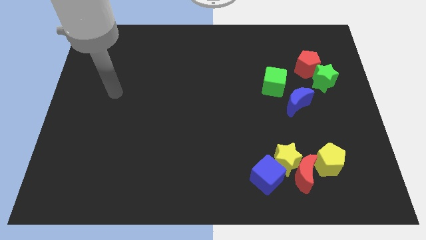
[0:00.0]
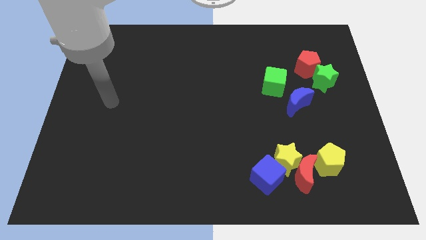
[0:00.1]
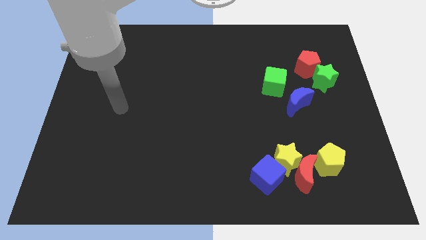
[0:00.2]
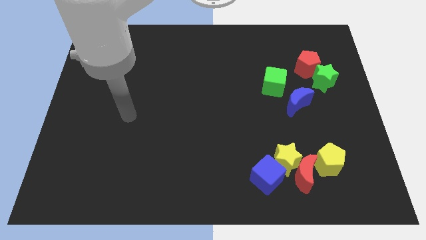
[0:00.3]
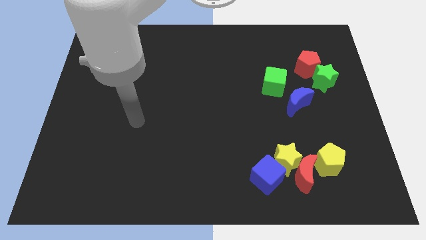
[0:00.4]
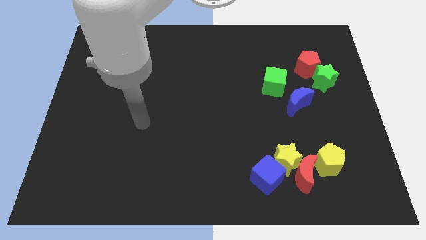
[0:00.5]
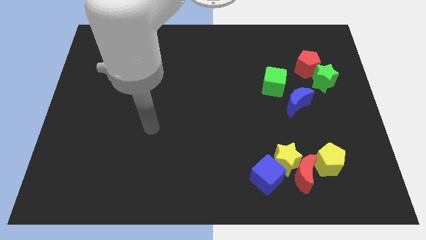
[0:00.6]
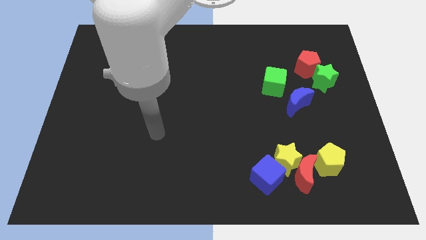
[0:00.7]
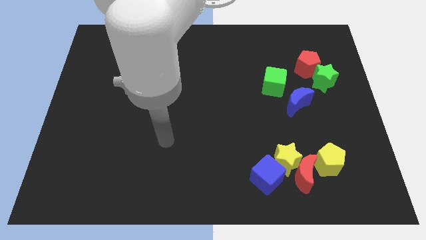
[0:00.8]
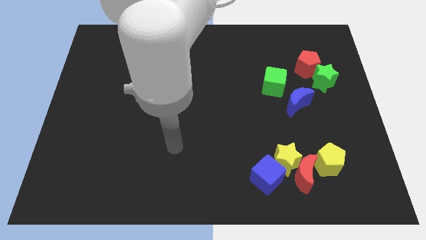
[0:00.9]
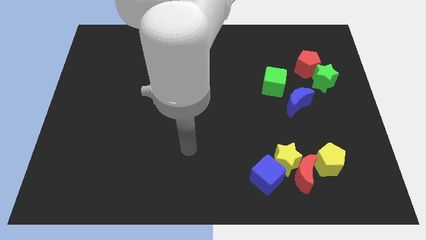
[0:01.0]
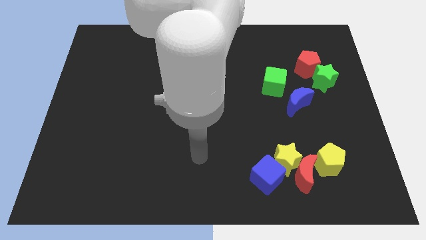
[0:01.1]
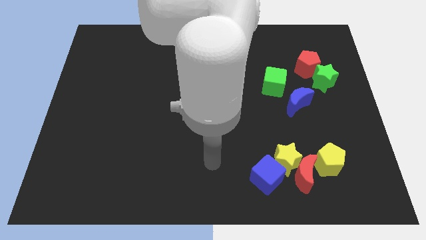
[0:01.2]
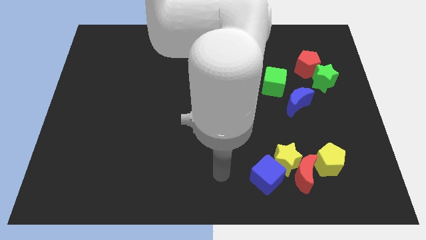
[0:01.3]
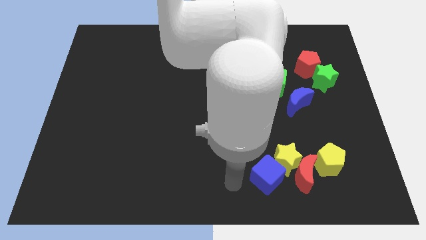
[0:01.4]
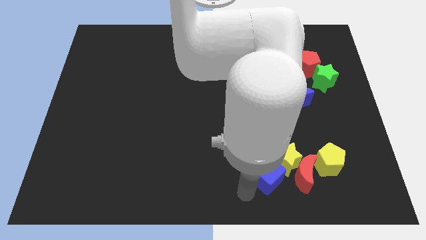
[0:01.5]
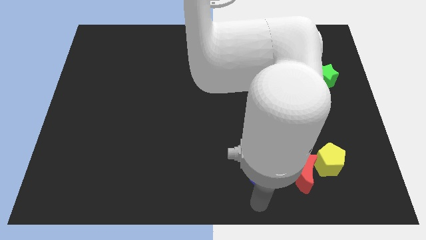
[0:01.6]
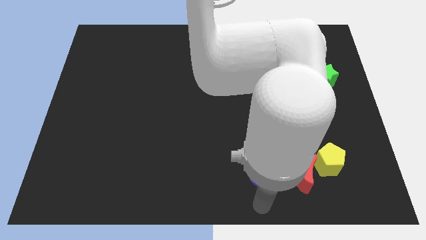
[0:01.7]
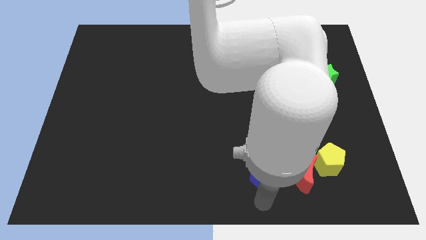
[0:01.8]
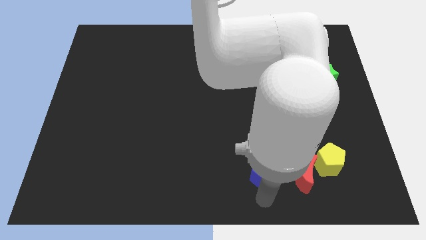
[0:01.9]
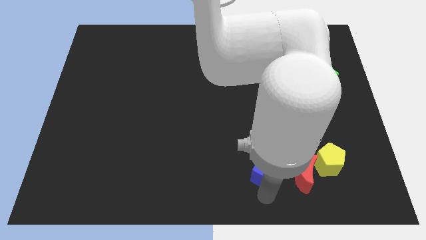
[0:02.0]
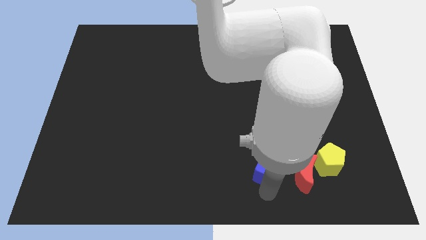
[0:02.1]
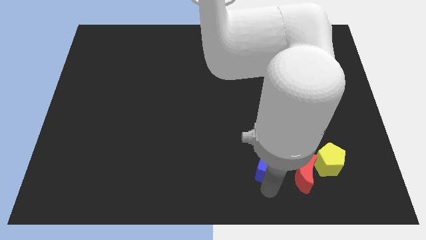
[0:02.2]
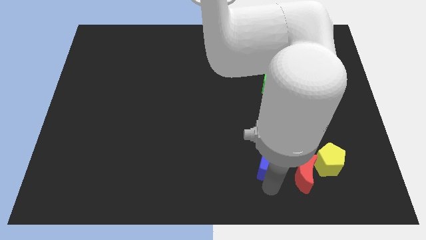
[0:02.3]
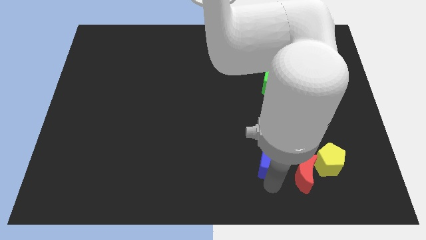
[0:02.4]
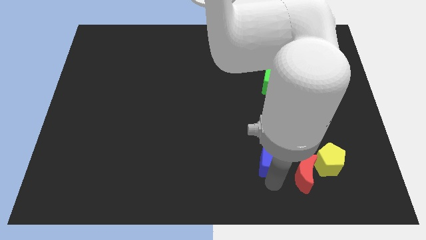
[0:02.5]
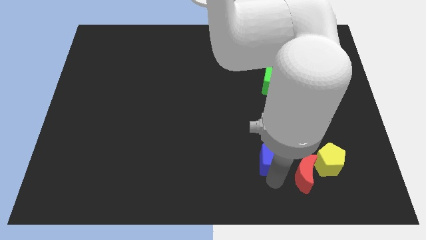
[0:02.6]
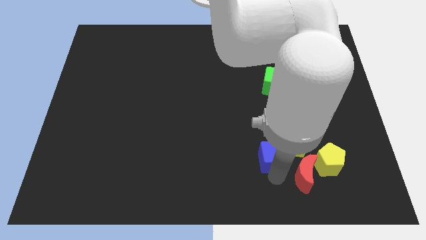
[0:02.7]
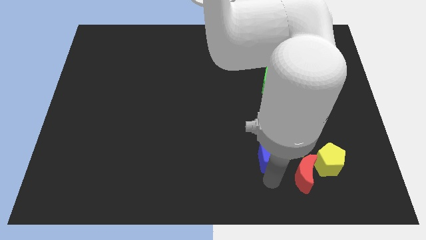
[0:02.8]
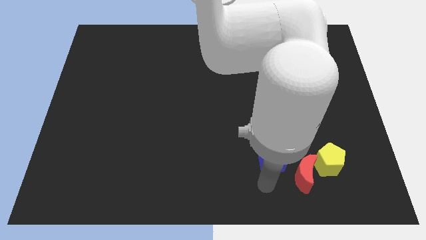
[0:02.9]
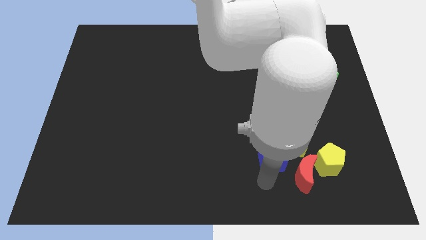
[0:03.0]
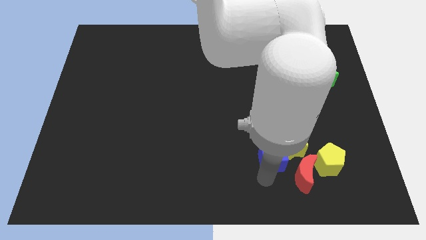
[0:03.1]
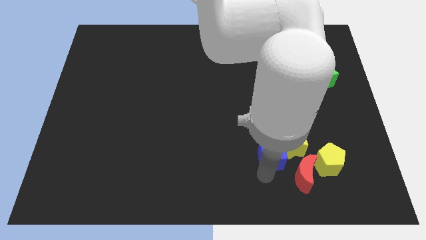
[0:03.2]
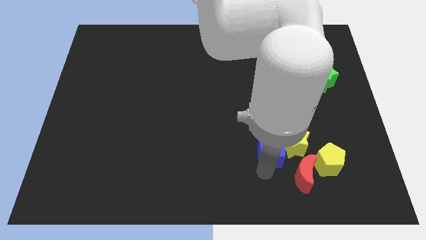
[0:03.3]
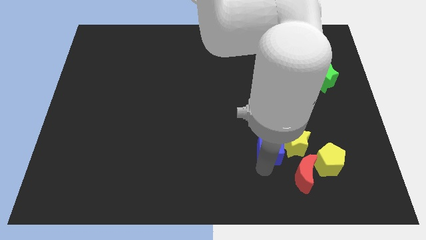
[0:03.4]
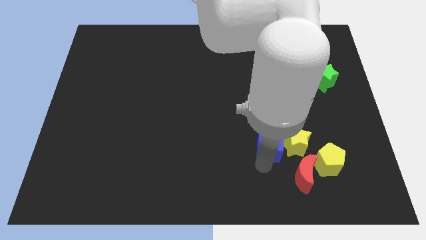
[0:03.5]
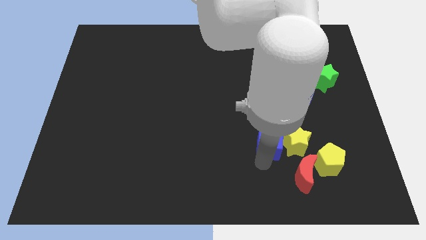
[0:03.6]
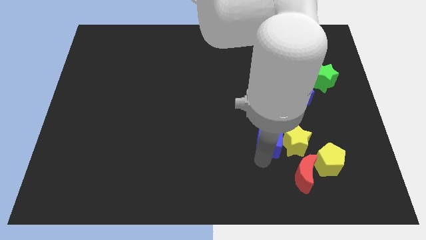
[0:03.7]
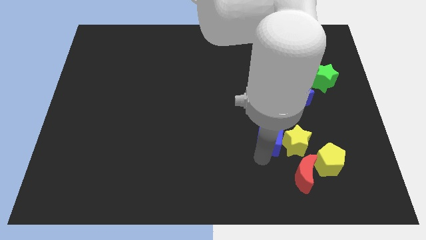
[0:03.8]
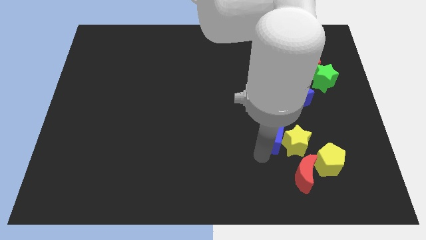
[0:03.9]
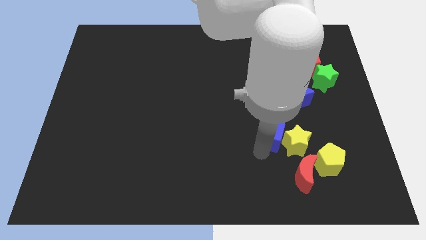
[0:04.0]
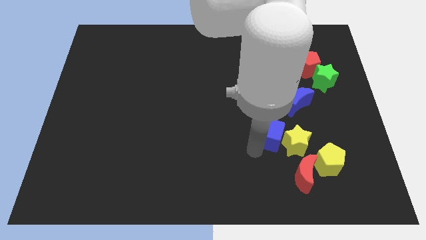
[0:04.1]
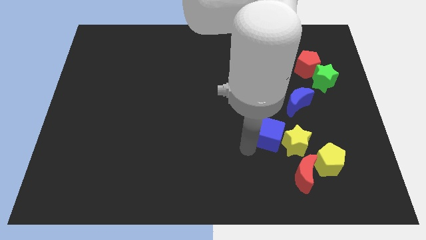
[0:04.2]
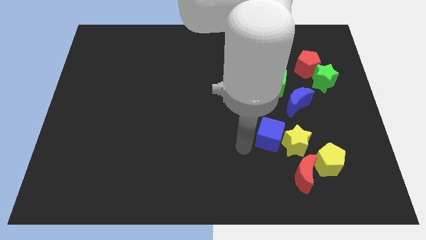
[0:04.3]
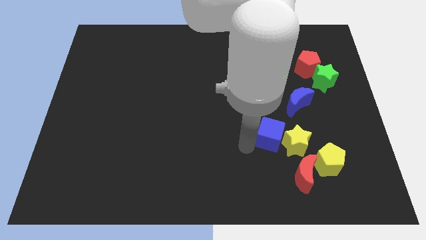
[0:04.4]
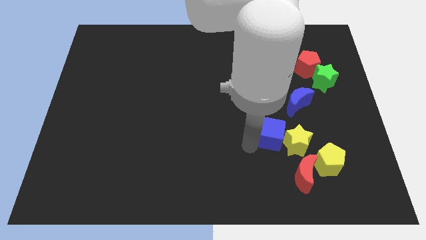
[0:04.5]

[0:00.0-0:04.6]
slightly push the blue cube up and to the right diagonally

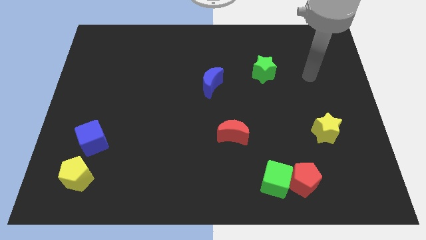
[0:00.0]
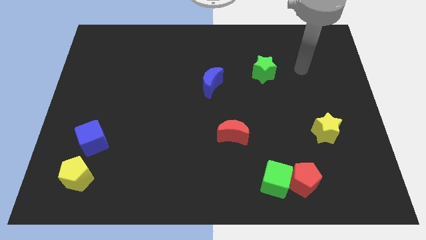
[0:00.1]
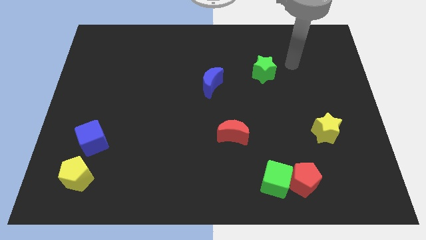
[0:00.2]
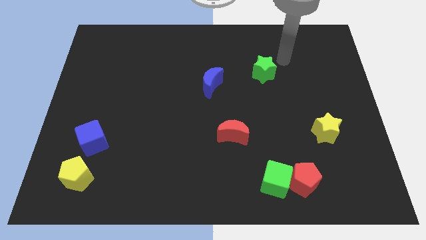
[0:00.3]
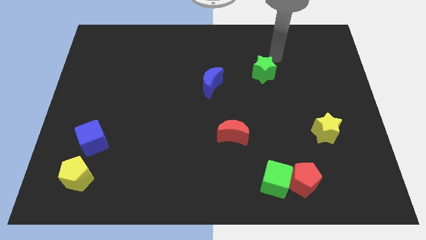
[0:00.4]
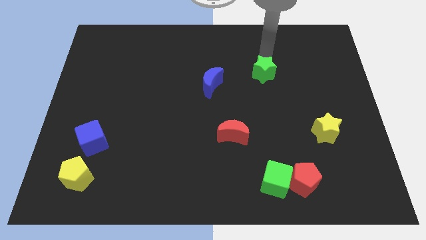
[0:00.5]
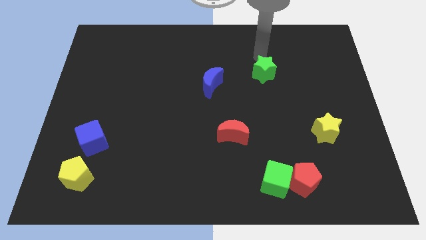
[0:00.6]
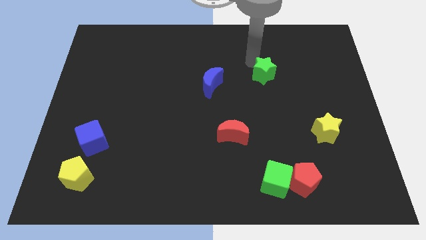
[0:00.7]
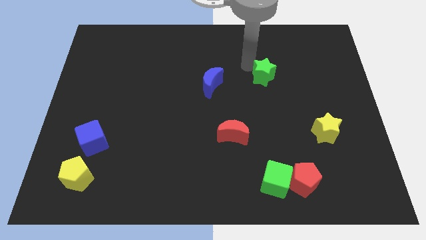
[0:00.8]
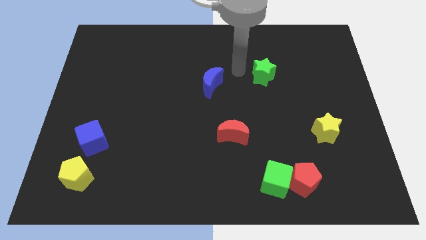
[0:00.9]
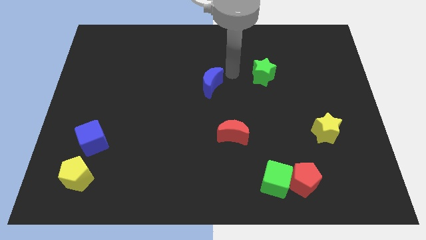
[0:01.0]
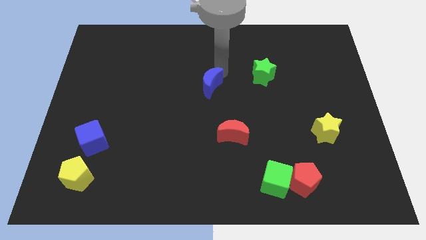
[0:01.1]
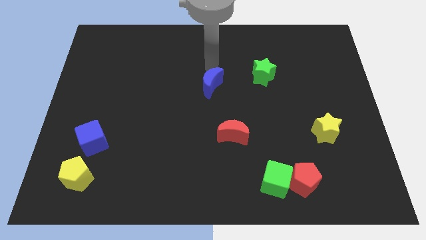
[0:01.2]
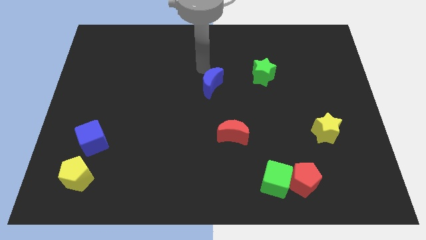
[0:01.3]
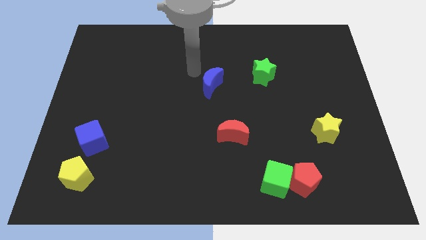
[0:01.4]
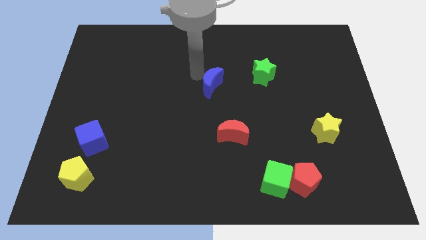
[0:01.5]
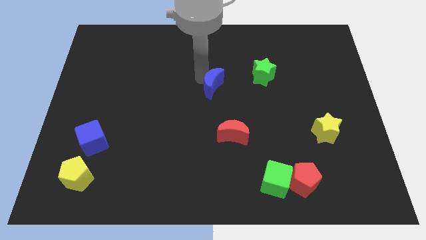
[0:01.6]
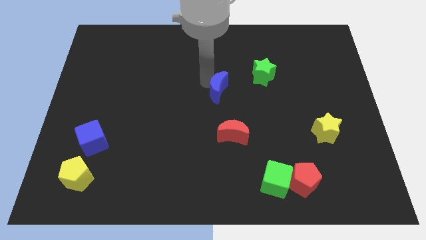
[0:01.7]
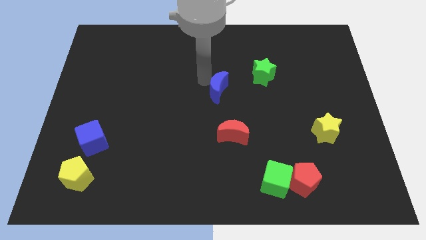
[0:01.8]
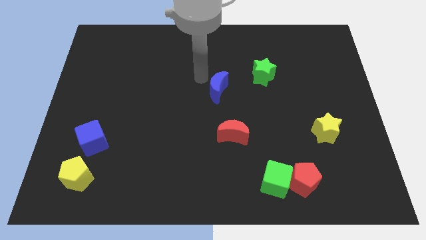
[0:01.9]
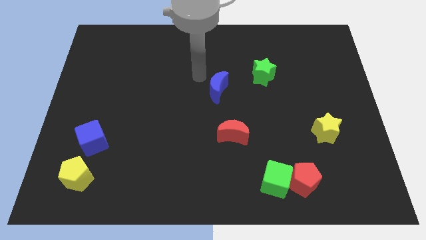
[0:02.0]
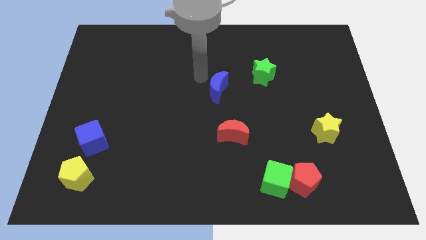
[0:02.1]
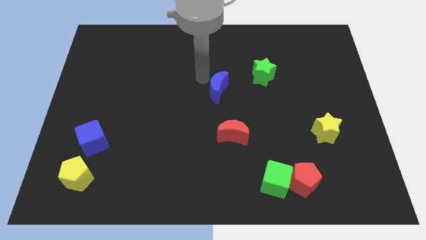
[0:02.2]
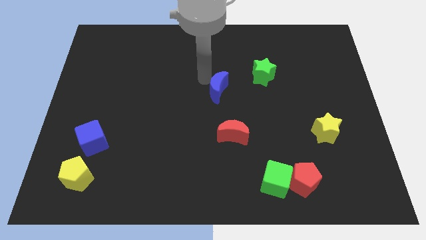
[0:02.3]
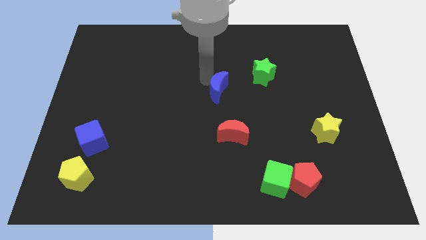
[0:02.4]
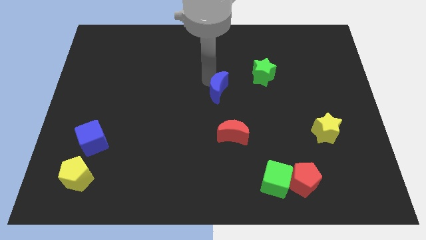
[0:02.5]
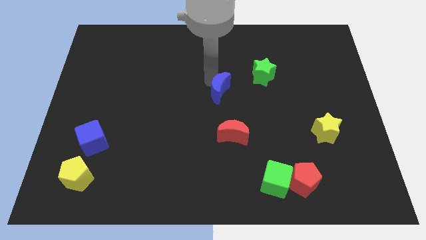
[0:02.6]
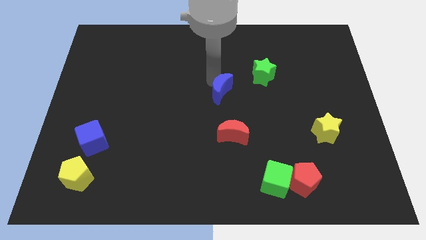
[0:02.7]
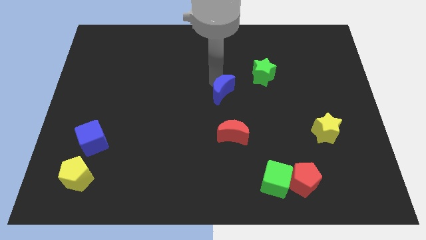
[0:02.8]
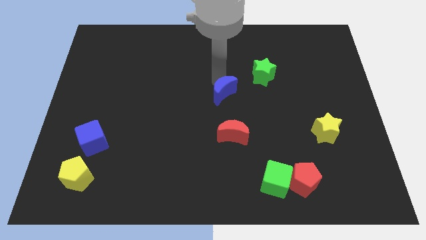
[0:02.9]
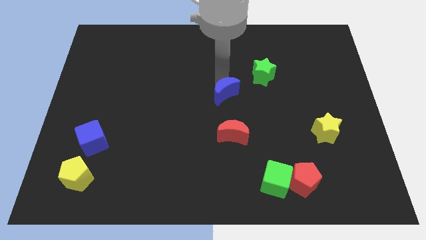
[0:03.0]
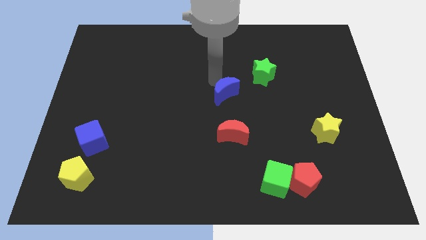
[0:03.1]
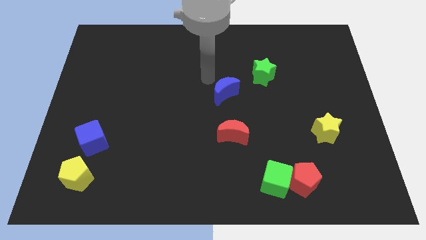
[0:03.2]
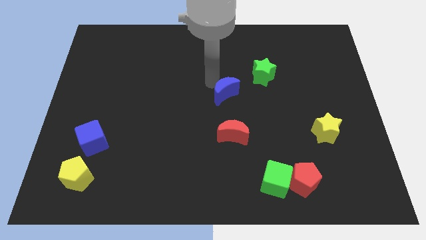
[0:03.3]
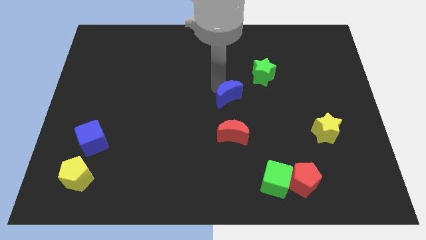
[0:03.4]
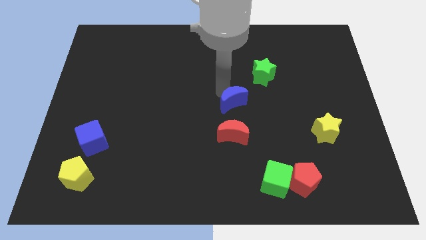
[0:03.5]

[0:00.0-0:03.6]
slightly slide the blue moon down and to the right

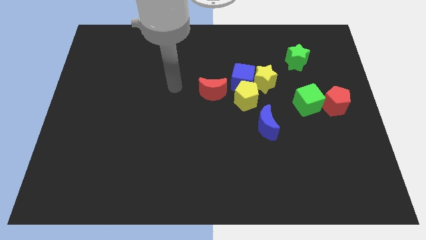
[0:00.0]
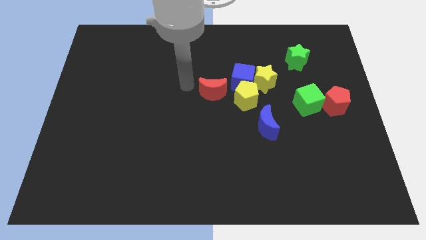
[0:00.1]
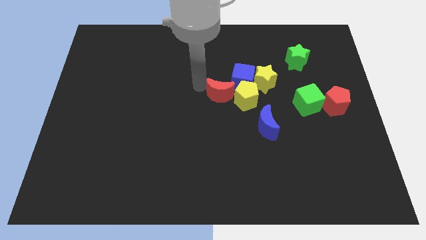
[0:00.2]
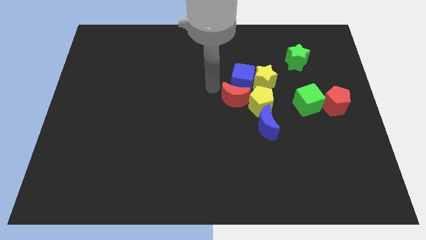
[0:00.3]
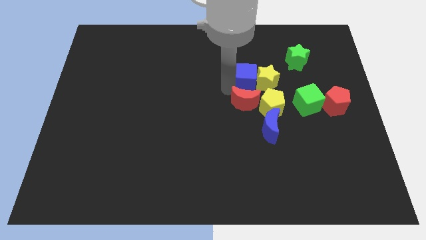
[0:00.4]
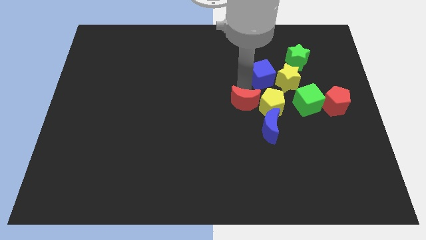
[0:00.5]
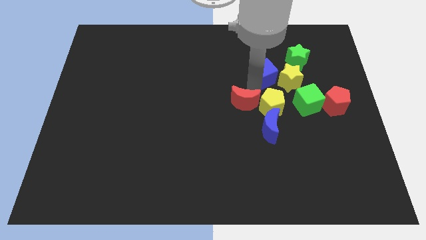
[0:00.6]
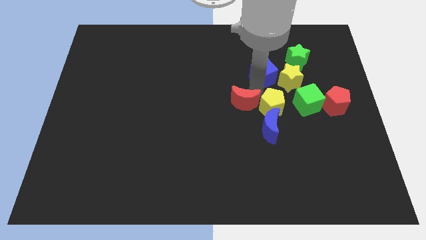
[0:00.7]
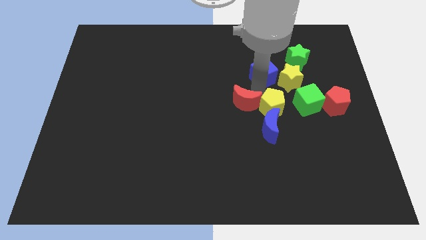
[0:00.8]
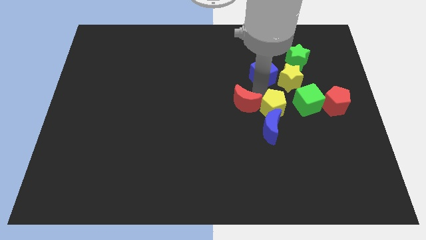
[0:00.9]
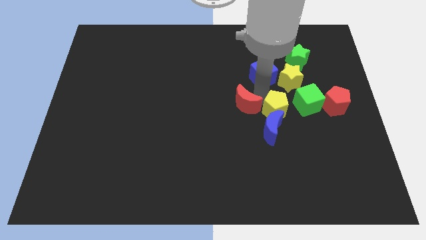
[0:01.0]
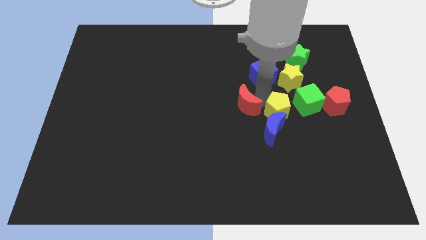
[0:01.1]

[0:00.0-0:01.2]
slightly move the yellow pentagon down and right
